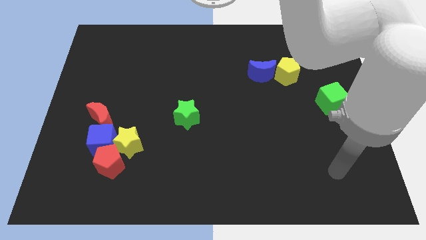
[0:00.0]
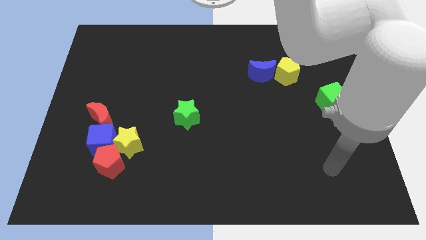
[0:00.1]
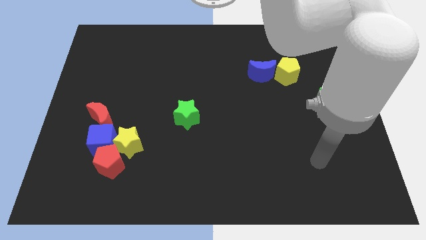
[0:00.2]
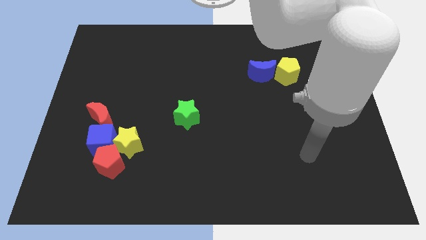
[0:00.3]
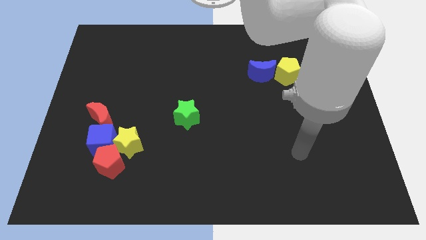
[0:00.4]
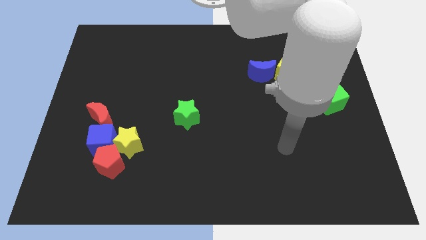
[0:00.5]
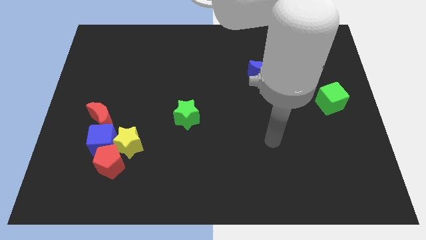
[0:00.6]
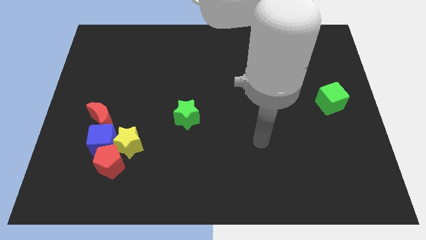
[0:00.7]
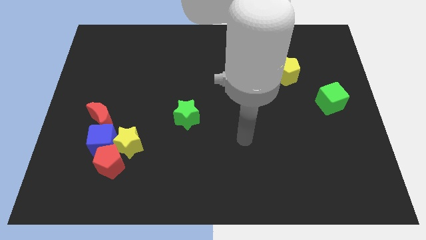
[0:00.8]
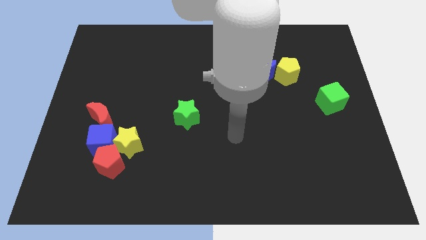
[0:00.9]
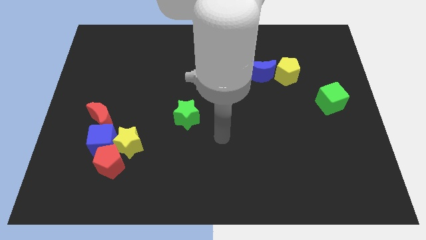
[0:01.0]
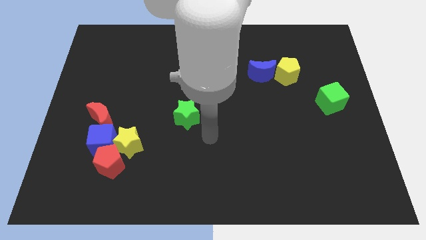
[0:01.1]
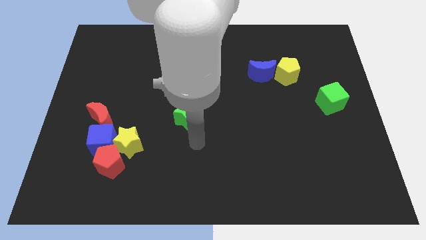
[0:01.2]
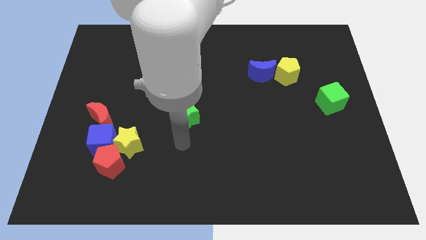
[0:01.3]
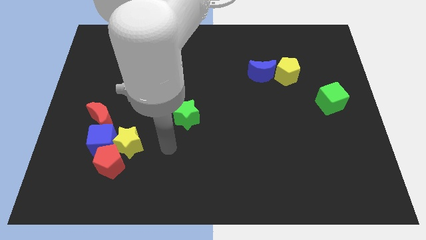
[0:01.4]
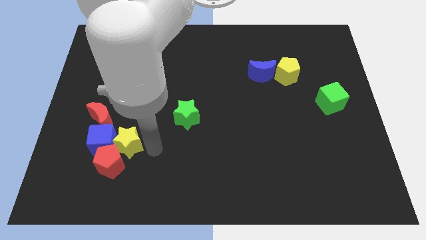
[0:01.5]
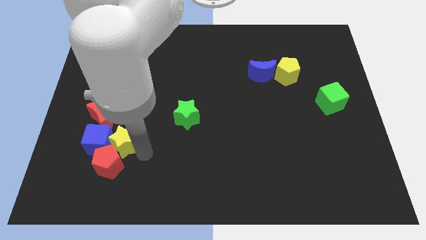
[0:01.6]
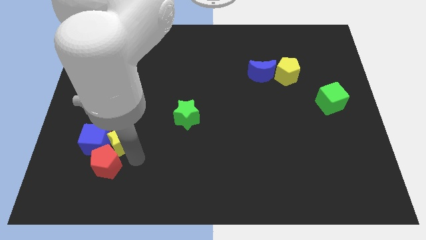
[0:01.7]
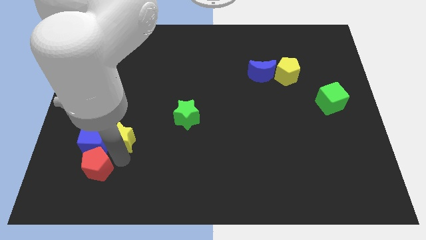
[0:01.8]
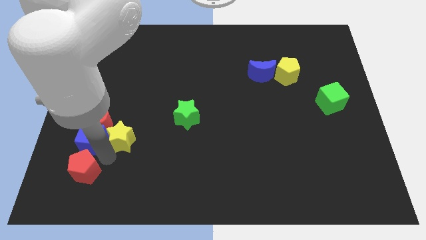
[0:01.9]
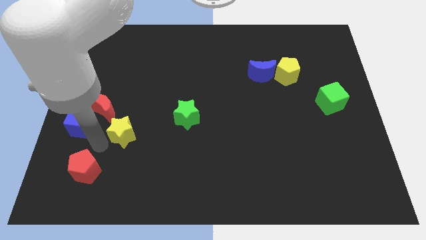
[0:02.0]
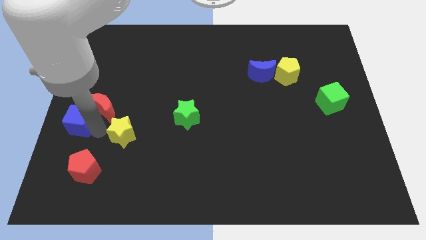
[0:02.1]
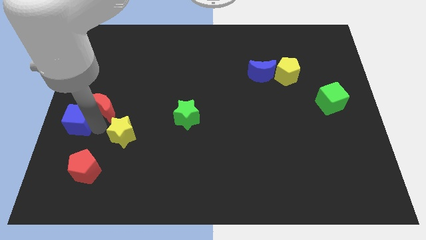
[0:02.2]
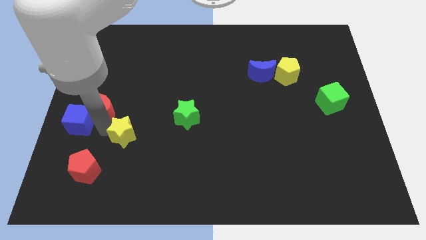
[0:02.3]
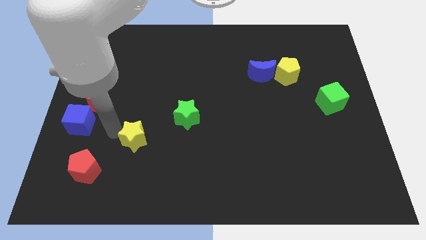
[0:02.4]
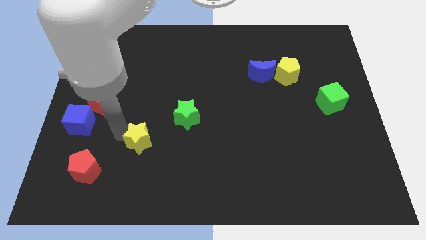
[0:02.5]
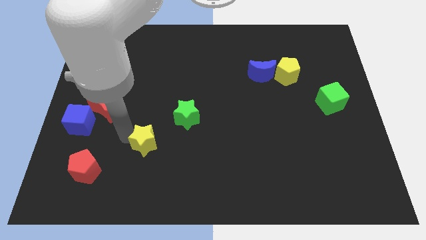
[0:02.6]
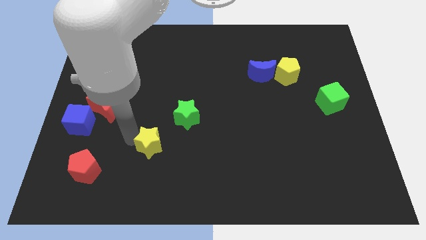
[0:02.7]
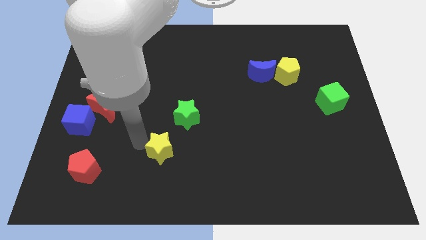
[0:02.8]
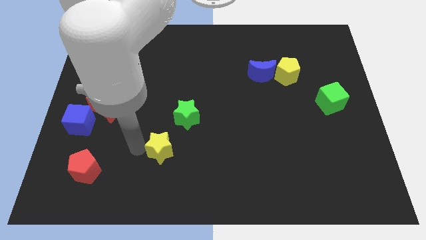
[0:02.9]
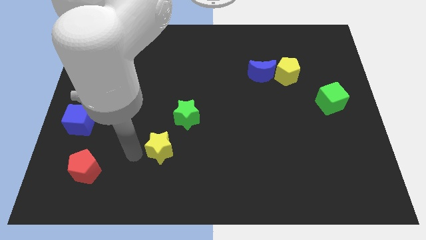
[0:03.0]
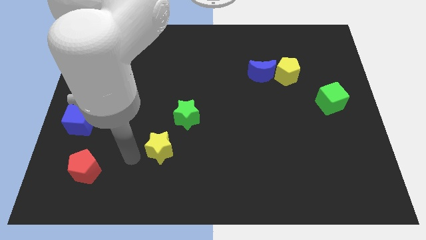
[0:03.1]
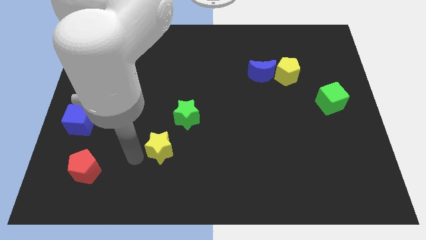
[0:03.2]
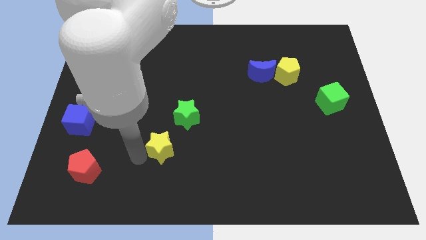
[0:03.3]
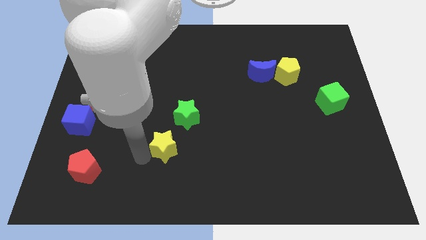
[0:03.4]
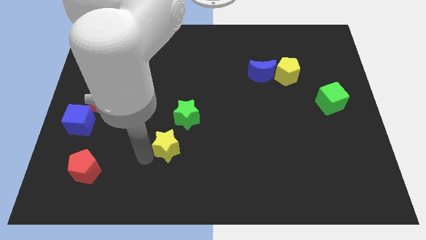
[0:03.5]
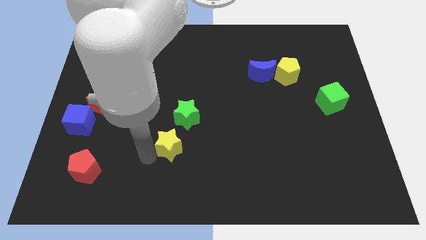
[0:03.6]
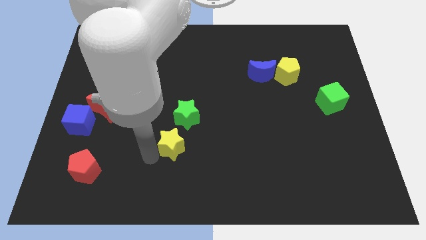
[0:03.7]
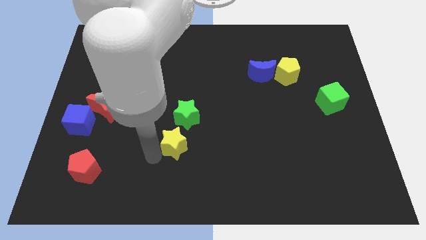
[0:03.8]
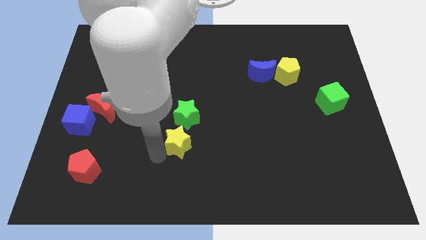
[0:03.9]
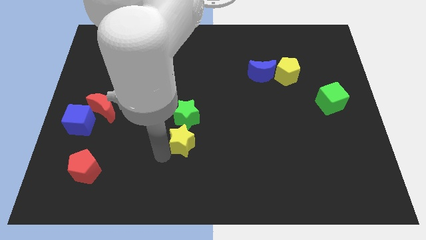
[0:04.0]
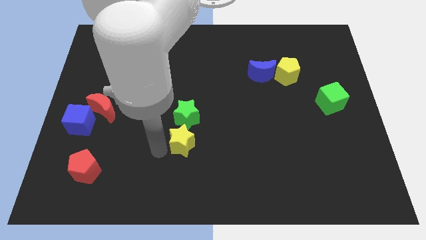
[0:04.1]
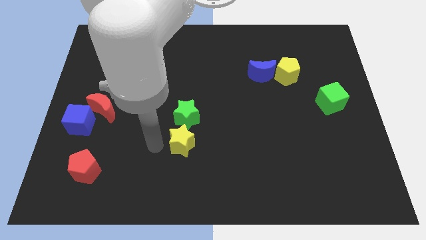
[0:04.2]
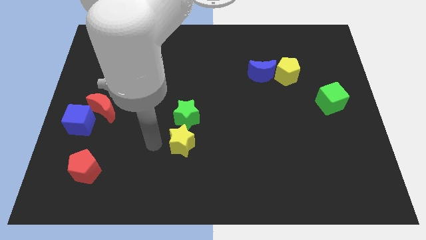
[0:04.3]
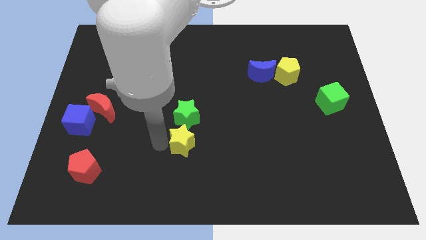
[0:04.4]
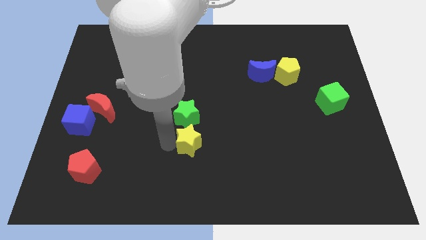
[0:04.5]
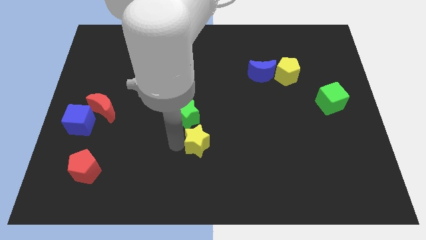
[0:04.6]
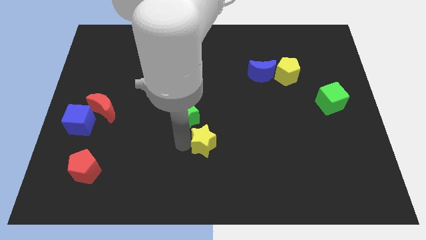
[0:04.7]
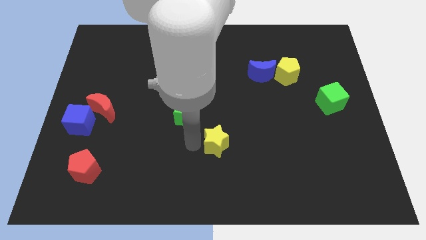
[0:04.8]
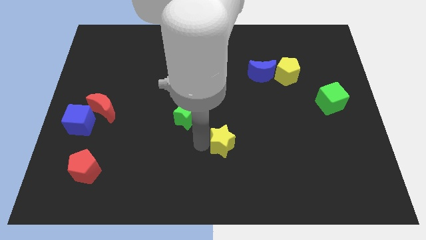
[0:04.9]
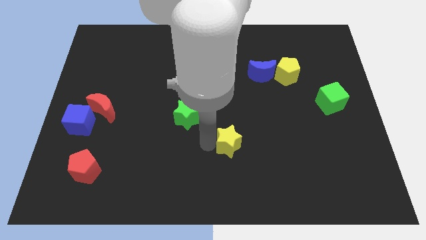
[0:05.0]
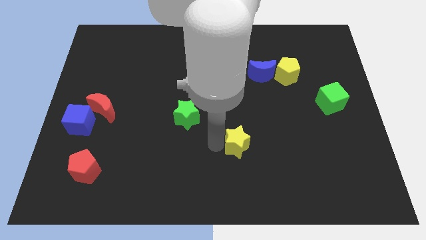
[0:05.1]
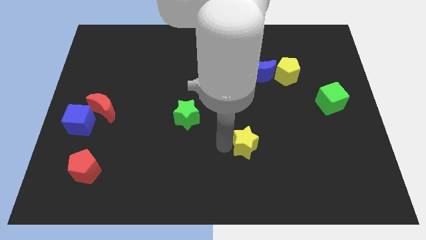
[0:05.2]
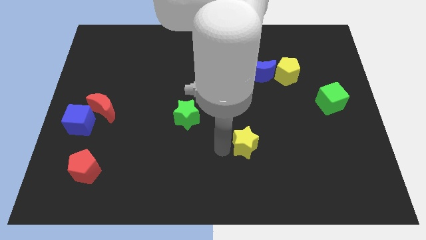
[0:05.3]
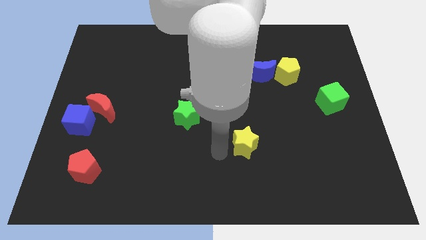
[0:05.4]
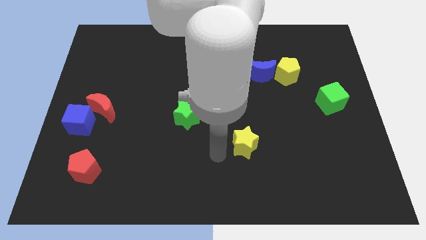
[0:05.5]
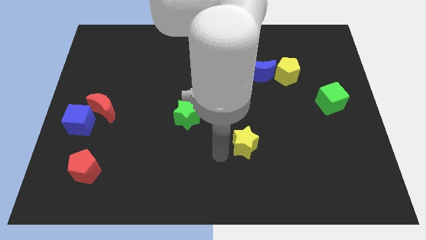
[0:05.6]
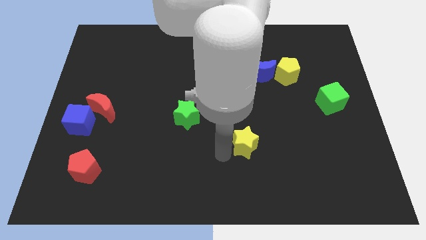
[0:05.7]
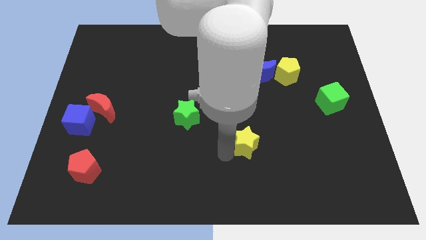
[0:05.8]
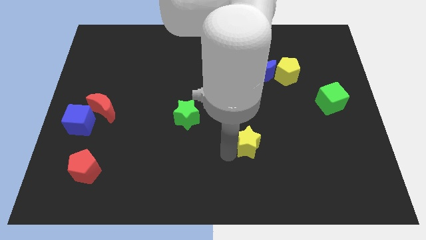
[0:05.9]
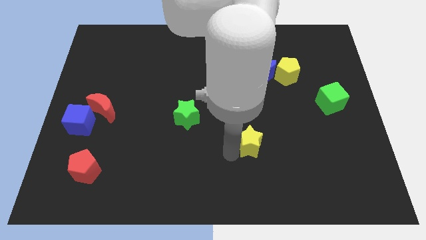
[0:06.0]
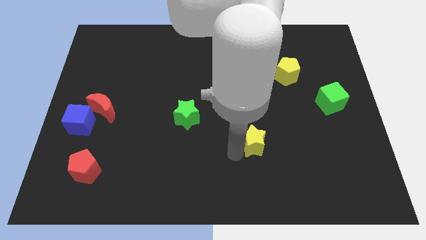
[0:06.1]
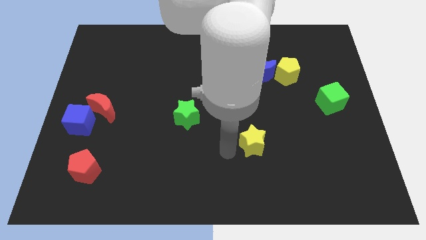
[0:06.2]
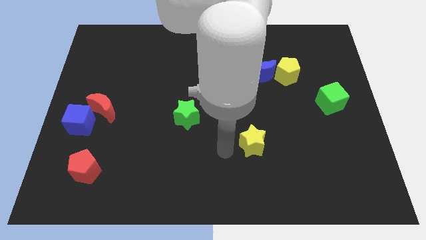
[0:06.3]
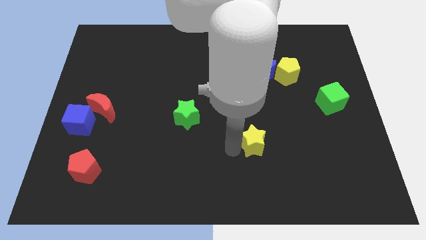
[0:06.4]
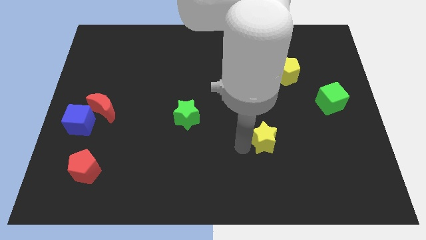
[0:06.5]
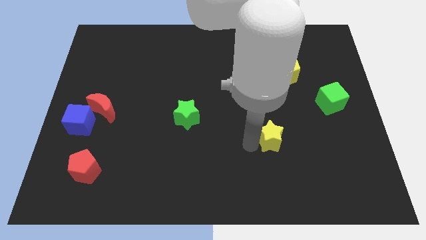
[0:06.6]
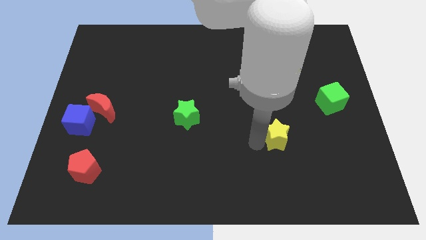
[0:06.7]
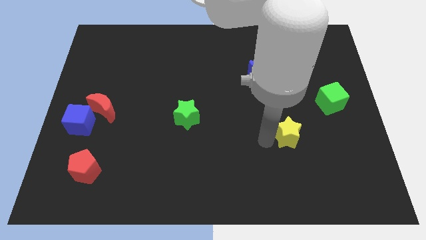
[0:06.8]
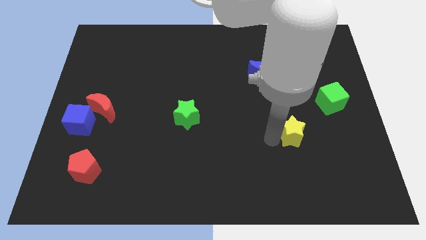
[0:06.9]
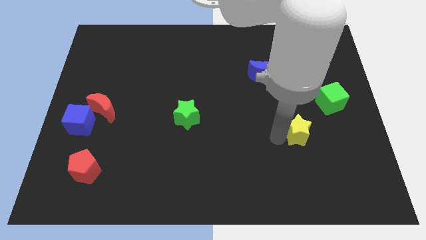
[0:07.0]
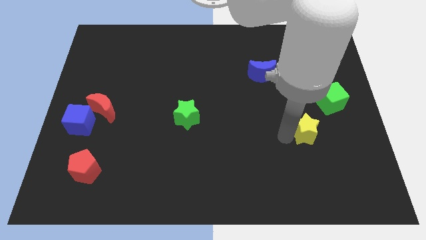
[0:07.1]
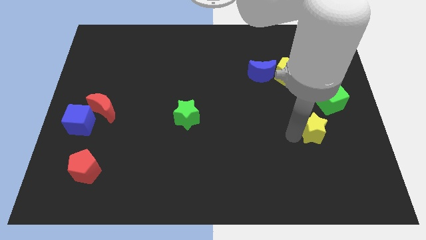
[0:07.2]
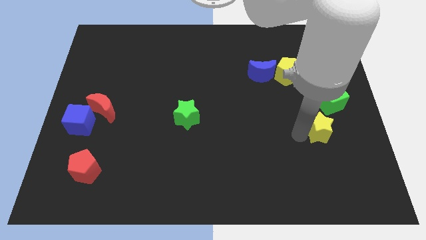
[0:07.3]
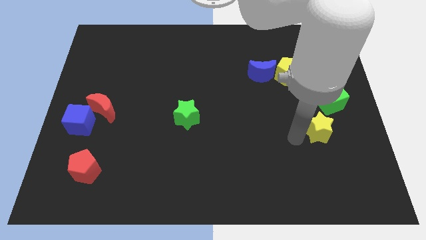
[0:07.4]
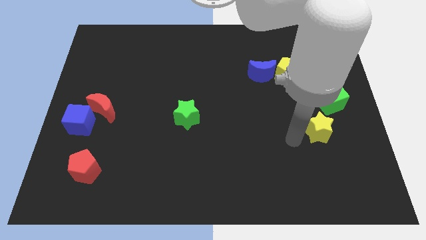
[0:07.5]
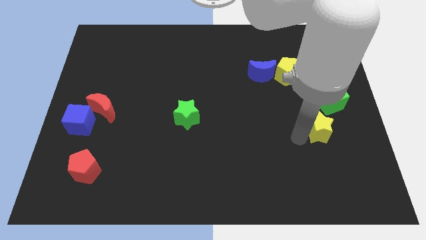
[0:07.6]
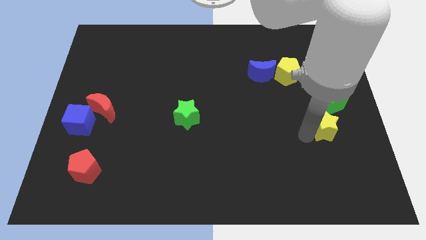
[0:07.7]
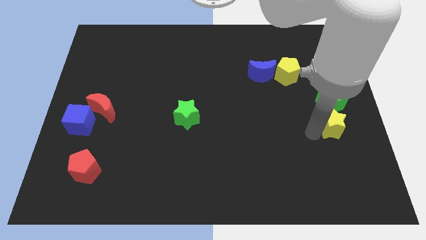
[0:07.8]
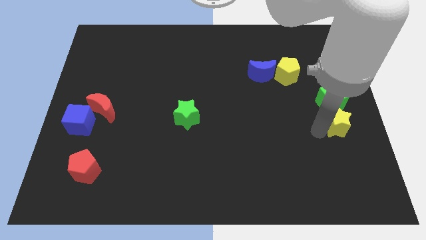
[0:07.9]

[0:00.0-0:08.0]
move the yellow star to the right side
